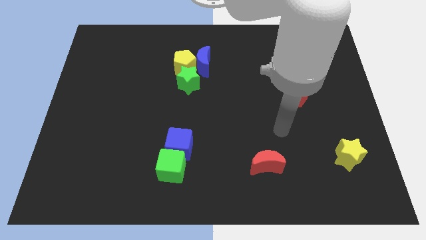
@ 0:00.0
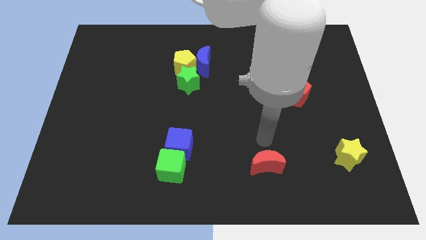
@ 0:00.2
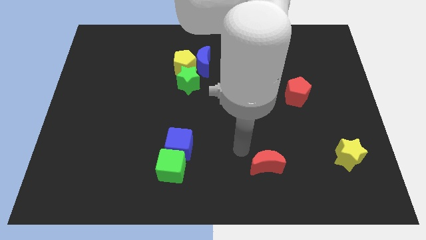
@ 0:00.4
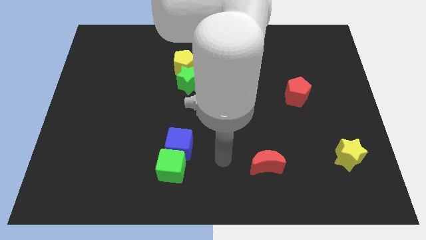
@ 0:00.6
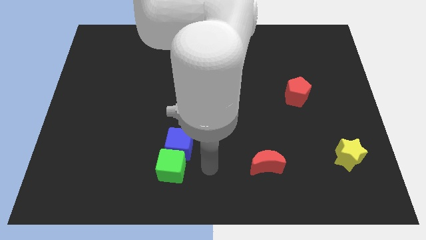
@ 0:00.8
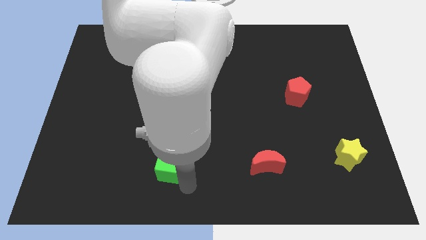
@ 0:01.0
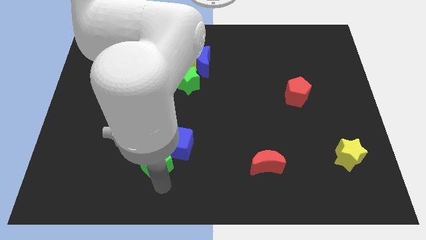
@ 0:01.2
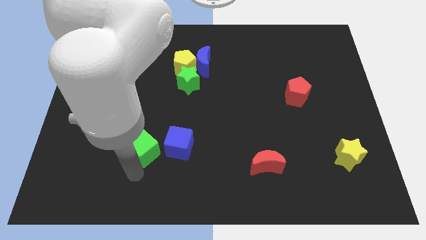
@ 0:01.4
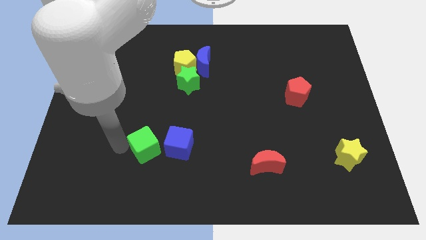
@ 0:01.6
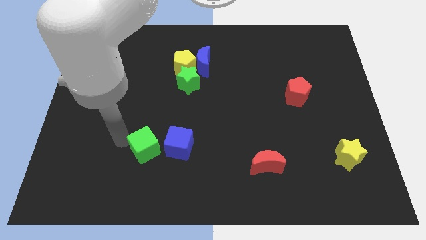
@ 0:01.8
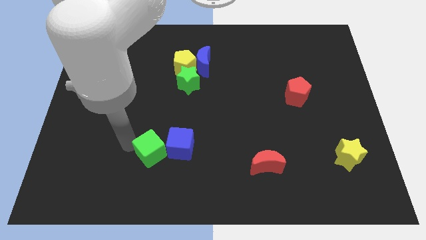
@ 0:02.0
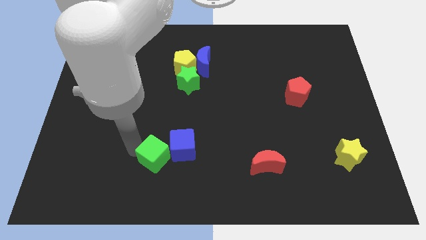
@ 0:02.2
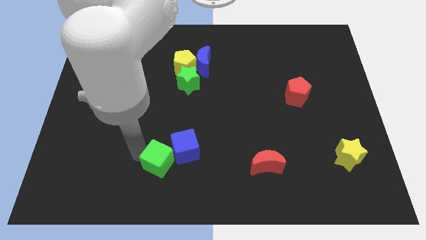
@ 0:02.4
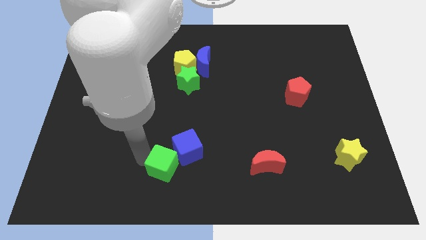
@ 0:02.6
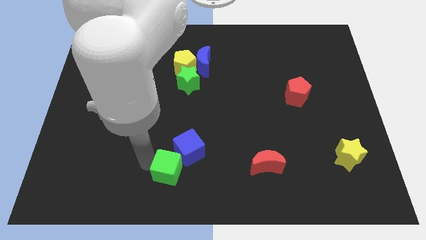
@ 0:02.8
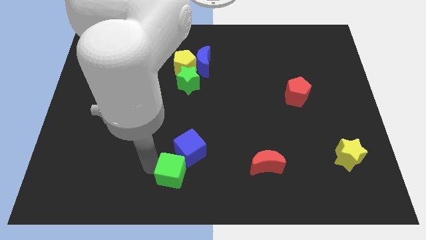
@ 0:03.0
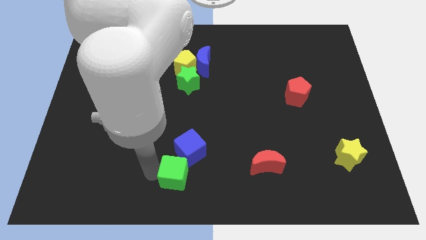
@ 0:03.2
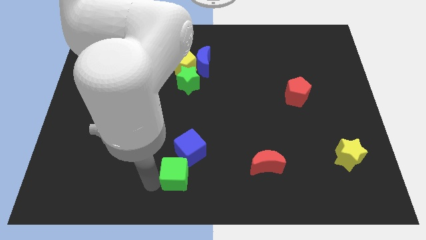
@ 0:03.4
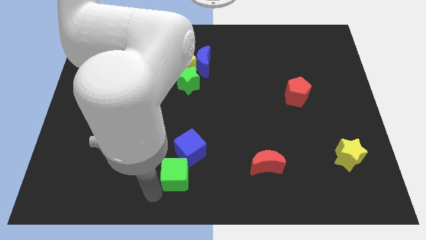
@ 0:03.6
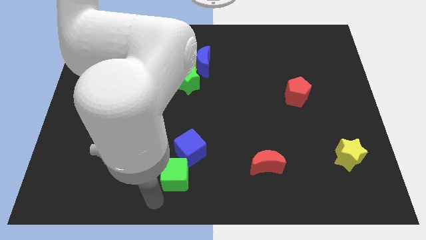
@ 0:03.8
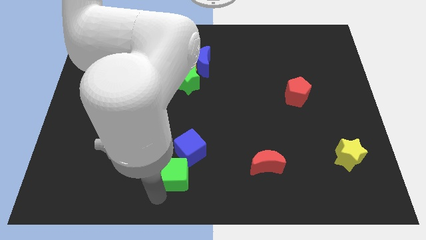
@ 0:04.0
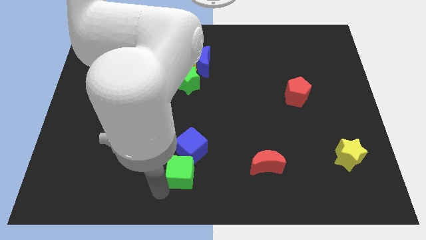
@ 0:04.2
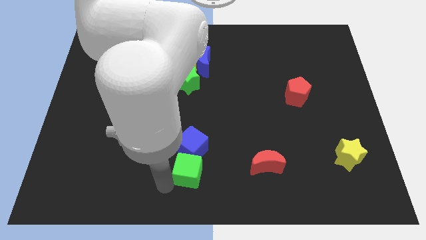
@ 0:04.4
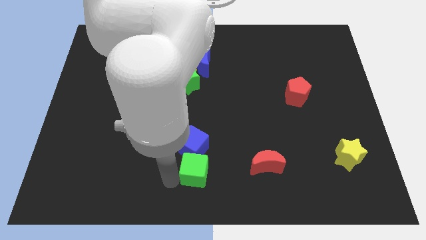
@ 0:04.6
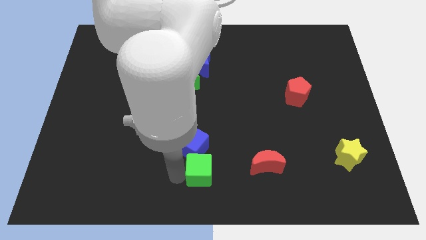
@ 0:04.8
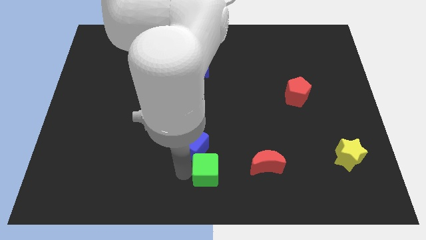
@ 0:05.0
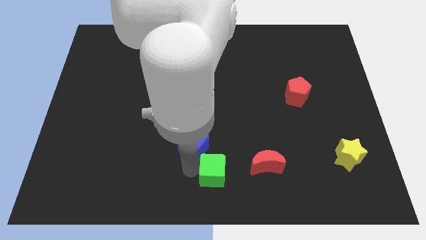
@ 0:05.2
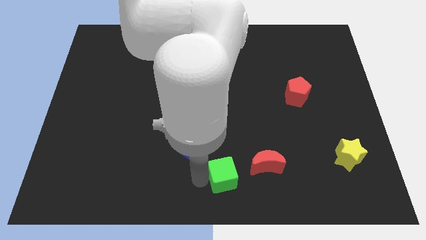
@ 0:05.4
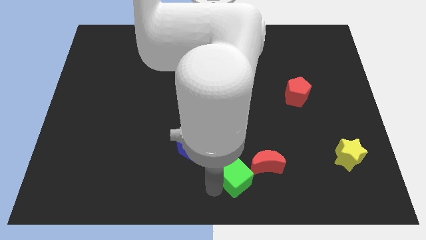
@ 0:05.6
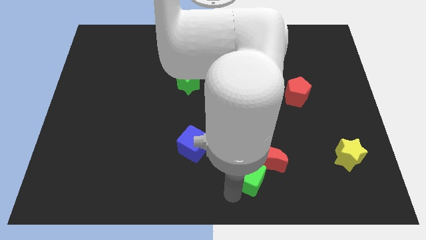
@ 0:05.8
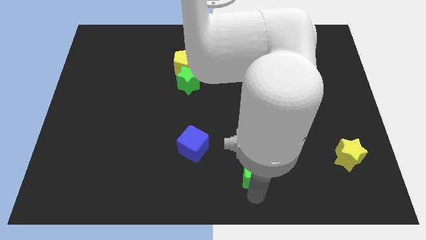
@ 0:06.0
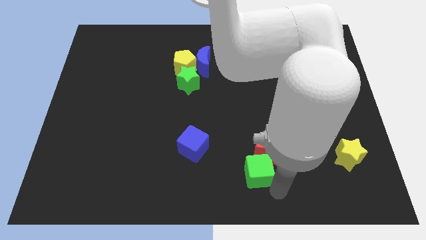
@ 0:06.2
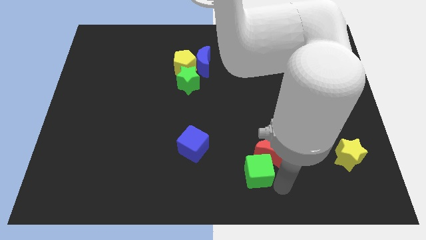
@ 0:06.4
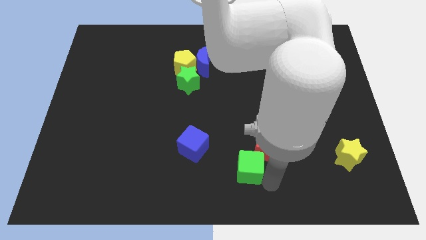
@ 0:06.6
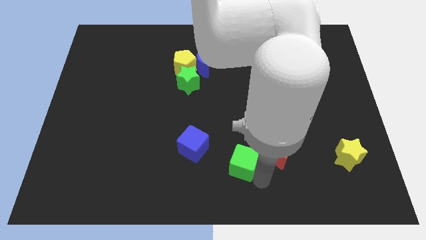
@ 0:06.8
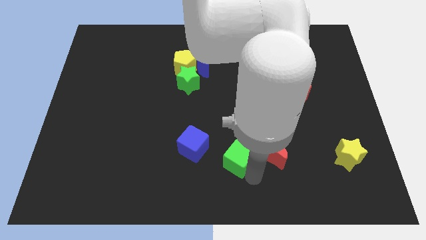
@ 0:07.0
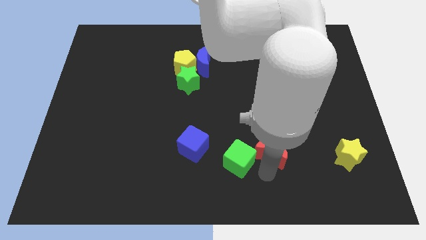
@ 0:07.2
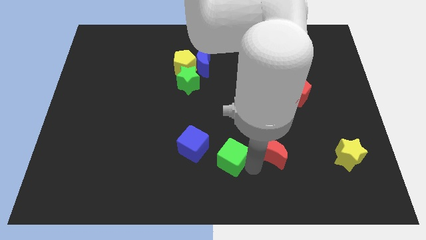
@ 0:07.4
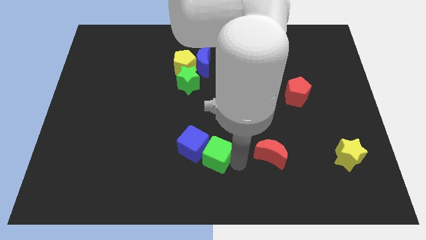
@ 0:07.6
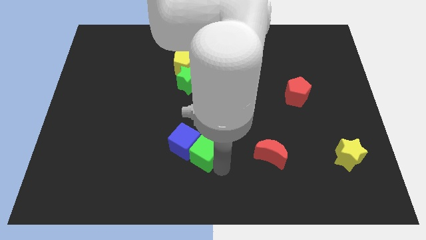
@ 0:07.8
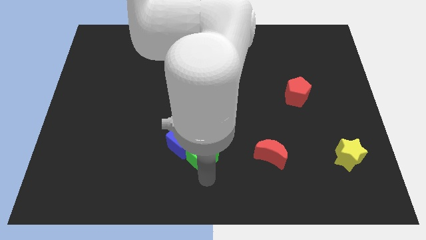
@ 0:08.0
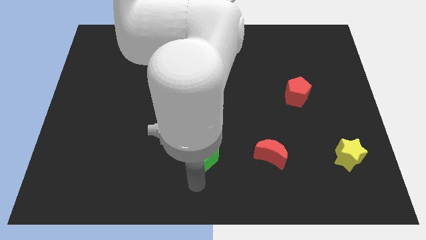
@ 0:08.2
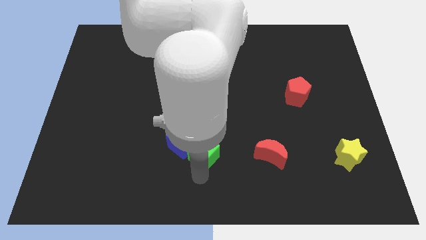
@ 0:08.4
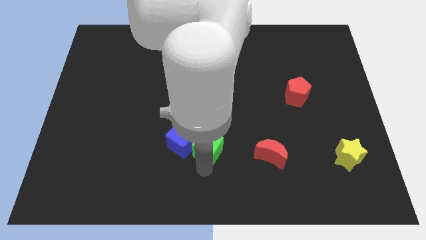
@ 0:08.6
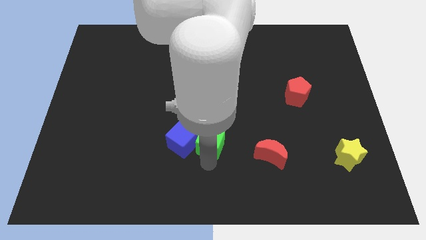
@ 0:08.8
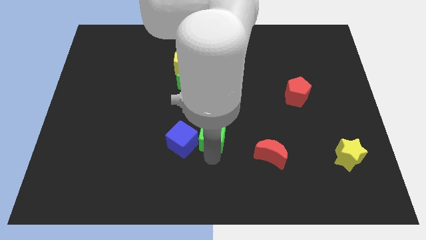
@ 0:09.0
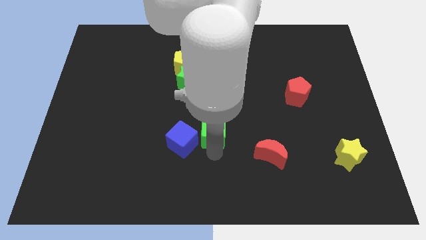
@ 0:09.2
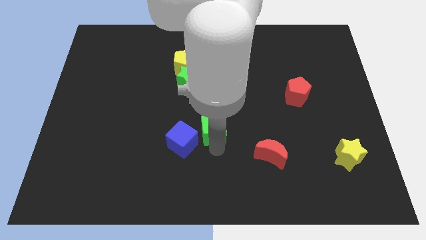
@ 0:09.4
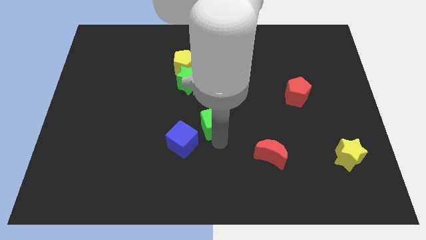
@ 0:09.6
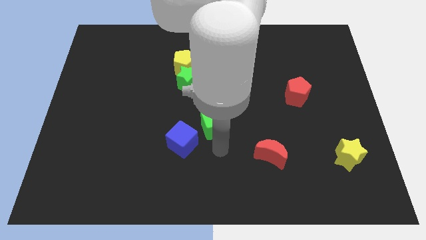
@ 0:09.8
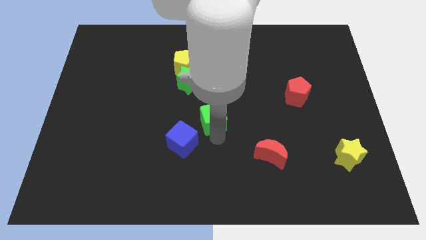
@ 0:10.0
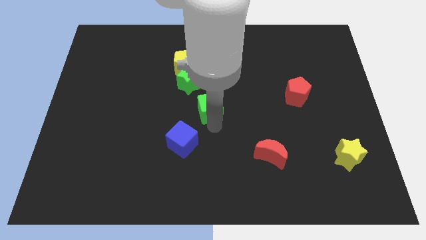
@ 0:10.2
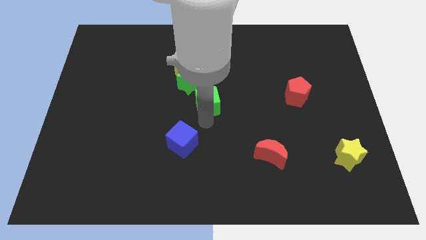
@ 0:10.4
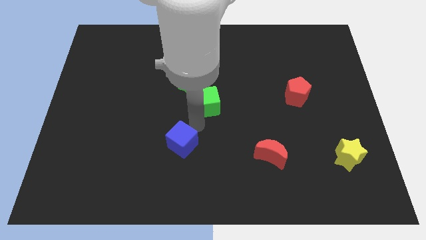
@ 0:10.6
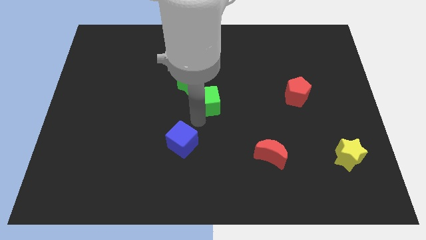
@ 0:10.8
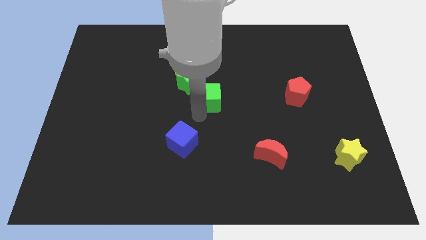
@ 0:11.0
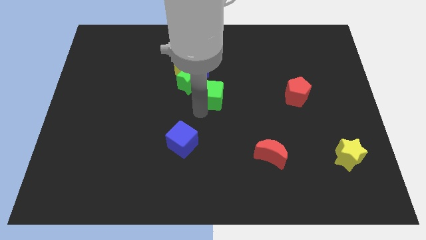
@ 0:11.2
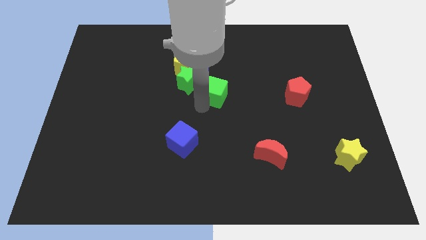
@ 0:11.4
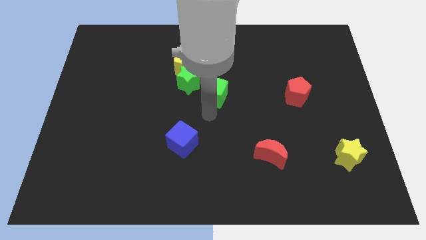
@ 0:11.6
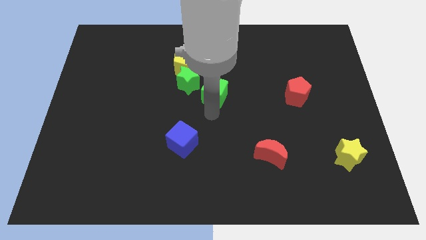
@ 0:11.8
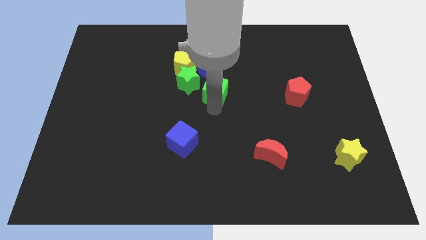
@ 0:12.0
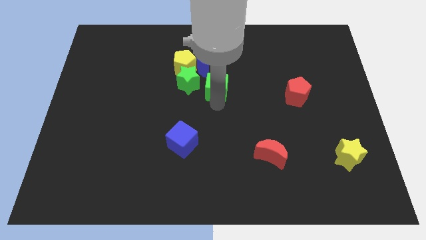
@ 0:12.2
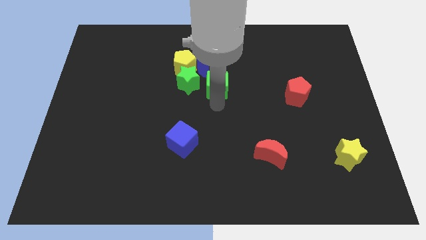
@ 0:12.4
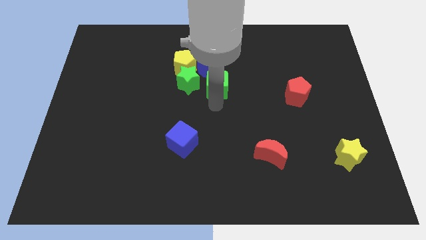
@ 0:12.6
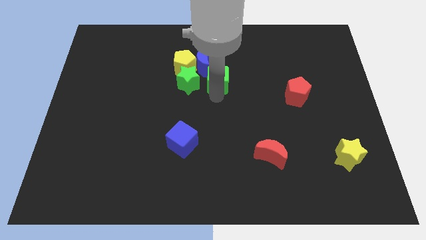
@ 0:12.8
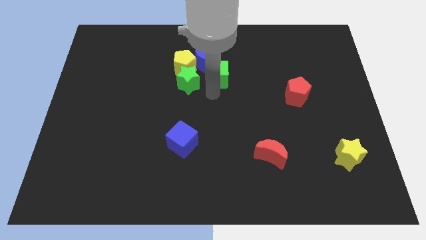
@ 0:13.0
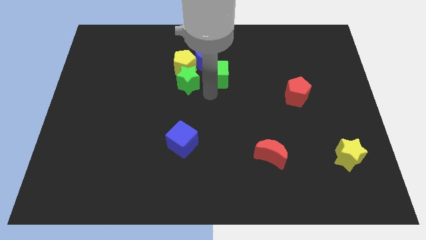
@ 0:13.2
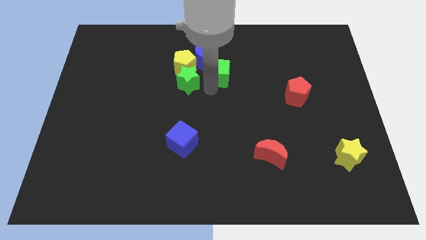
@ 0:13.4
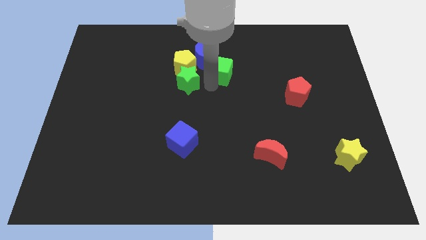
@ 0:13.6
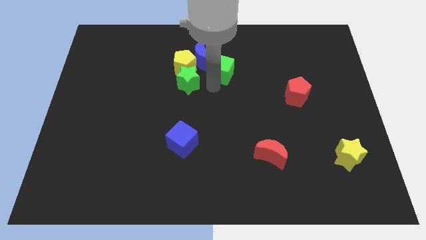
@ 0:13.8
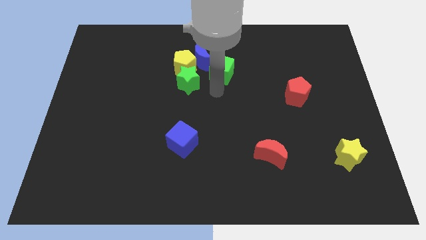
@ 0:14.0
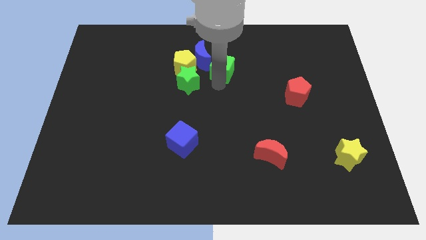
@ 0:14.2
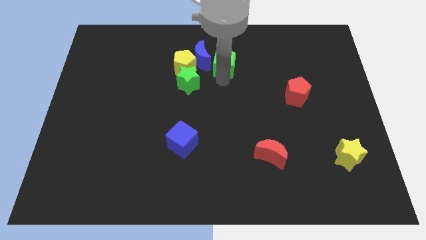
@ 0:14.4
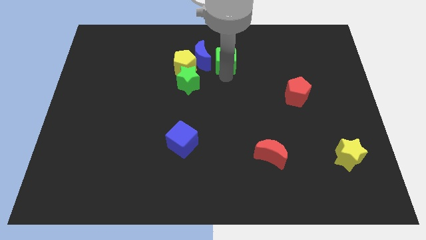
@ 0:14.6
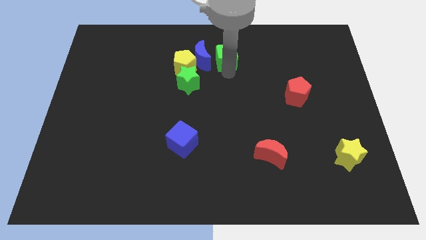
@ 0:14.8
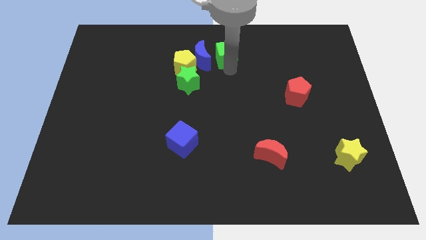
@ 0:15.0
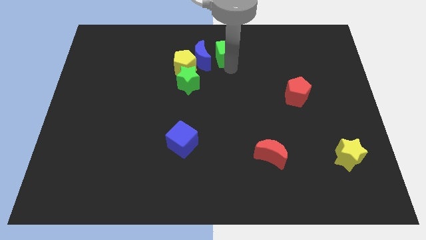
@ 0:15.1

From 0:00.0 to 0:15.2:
slide the green cube to the top
